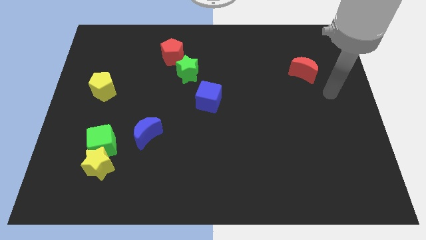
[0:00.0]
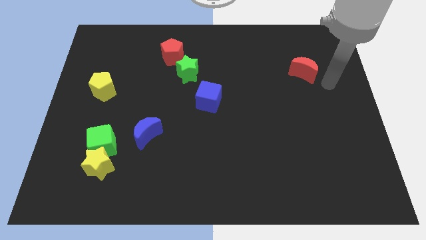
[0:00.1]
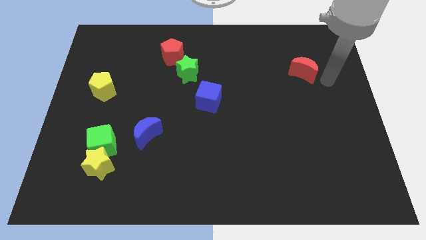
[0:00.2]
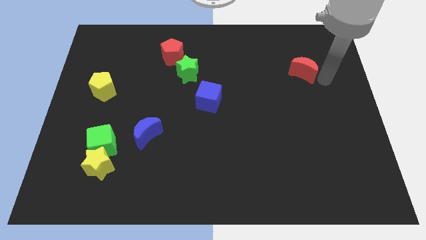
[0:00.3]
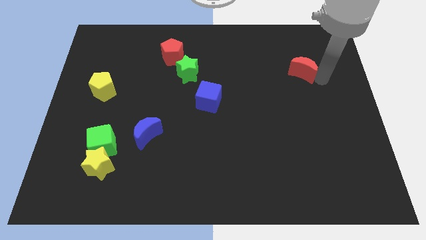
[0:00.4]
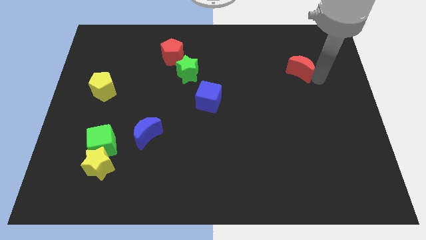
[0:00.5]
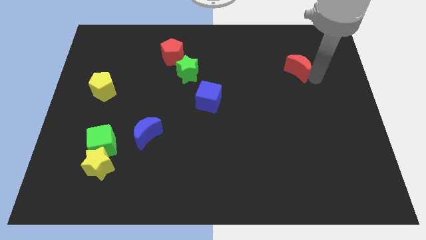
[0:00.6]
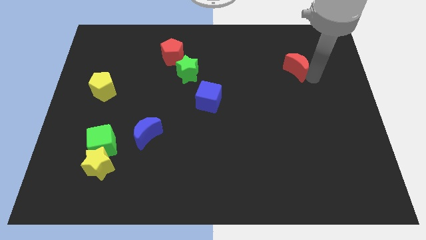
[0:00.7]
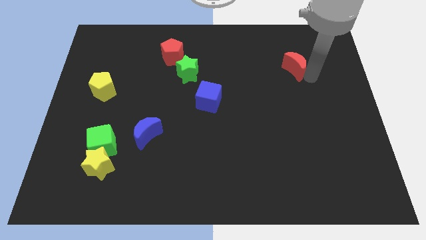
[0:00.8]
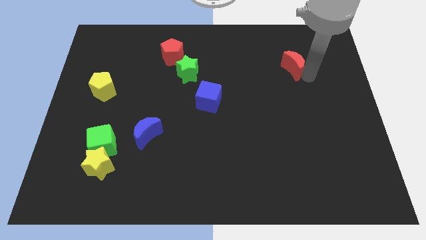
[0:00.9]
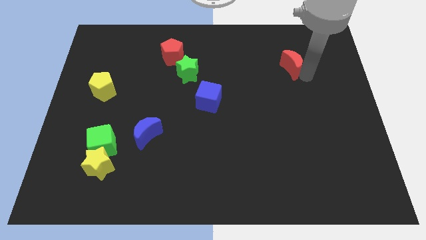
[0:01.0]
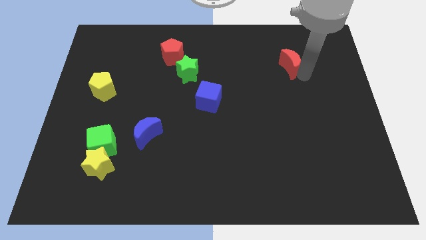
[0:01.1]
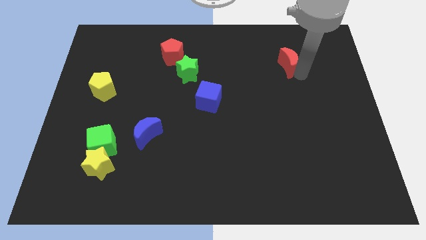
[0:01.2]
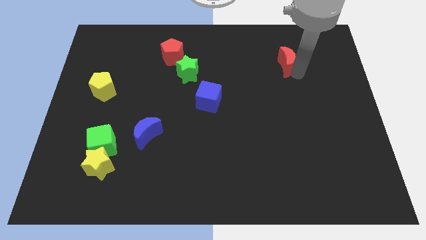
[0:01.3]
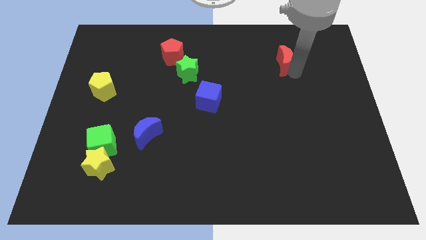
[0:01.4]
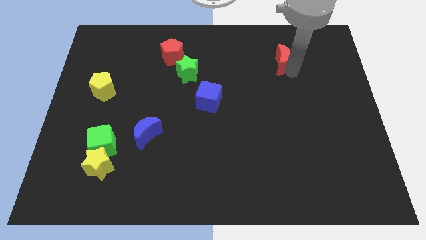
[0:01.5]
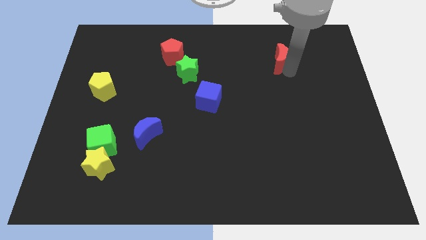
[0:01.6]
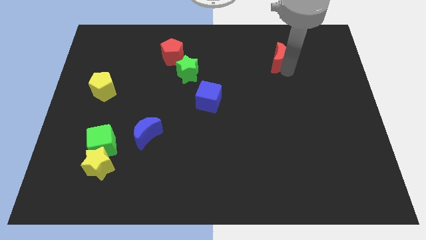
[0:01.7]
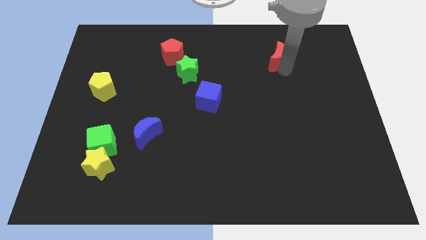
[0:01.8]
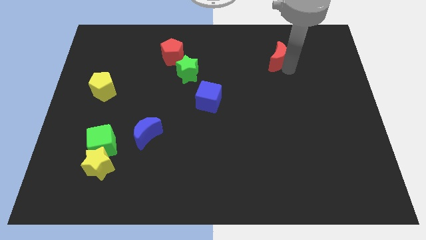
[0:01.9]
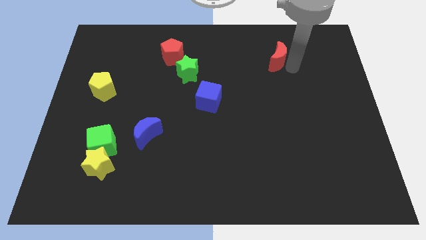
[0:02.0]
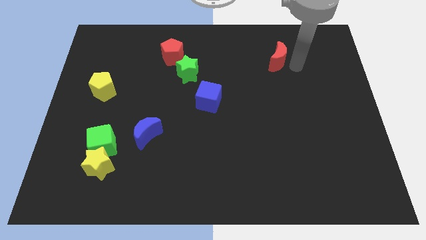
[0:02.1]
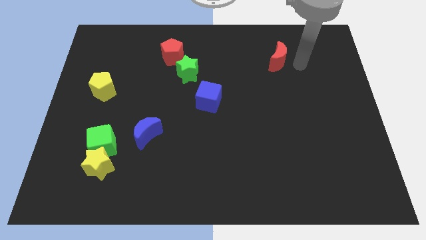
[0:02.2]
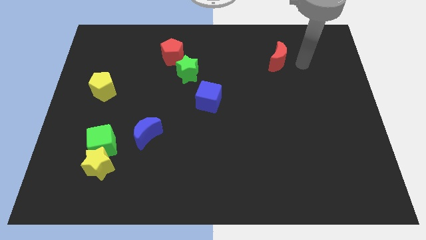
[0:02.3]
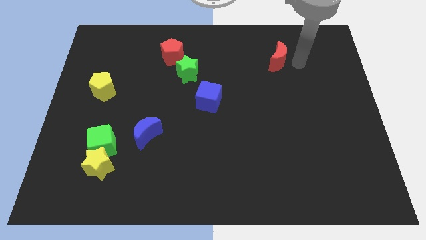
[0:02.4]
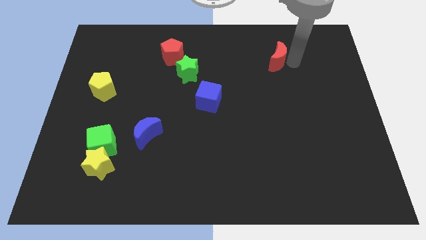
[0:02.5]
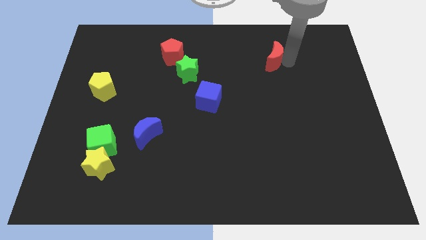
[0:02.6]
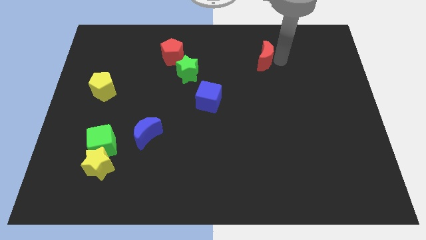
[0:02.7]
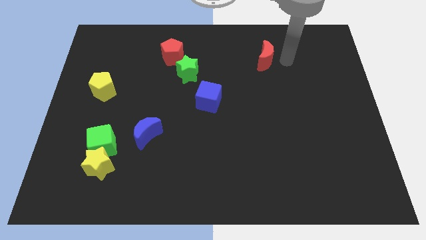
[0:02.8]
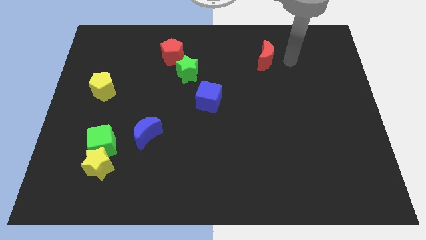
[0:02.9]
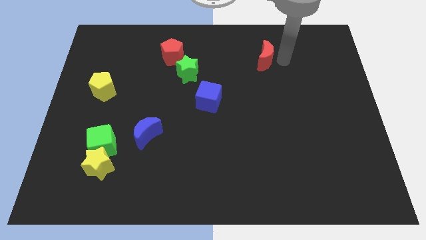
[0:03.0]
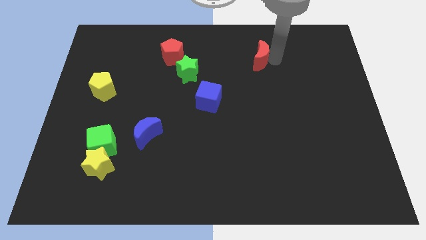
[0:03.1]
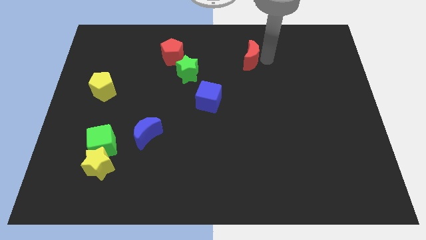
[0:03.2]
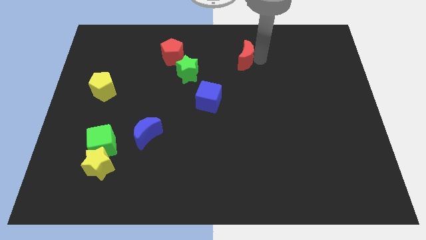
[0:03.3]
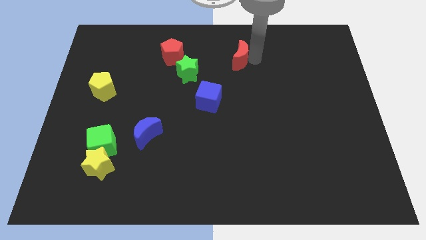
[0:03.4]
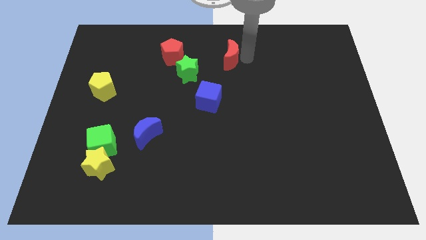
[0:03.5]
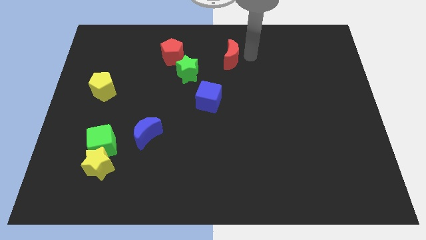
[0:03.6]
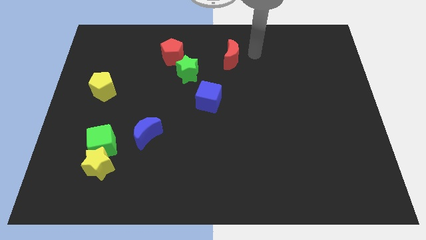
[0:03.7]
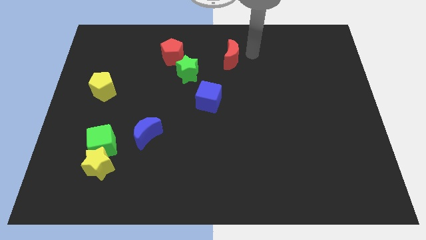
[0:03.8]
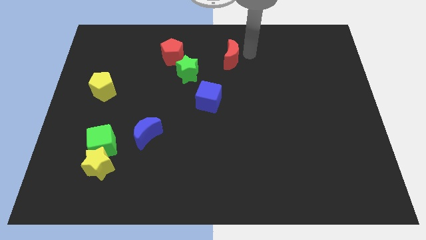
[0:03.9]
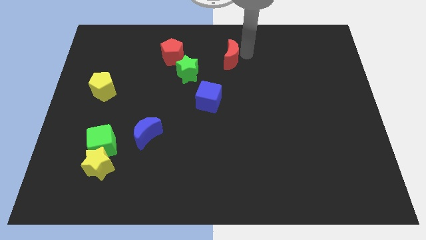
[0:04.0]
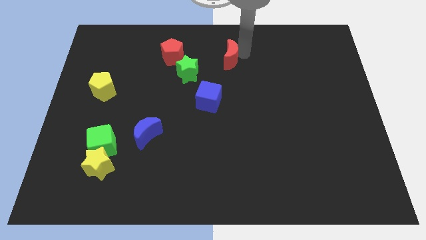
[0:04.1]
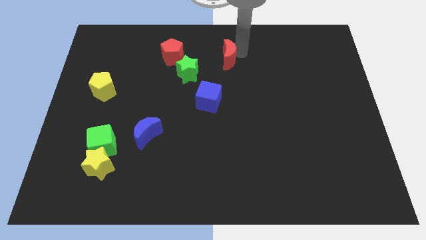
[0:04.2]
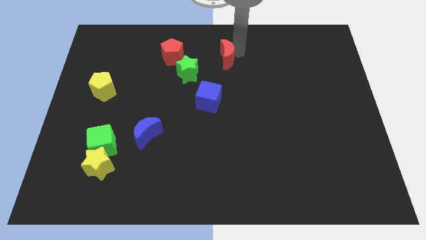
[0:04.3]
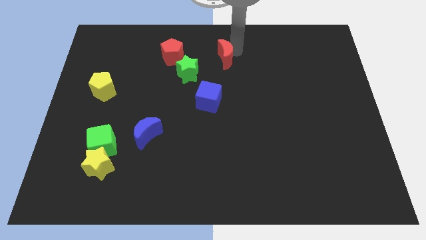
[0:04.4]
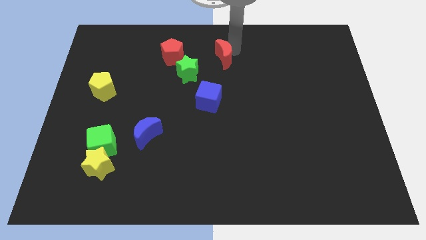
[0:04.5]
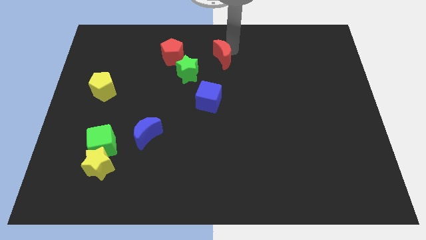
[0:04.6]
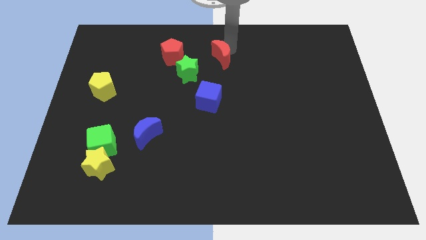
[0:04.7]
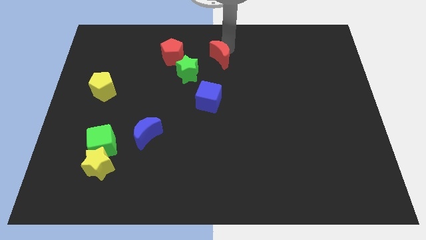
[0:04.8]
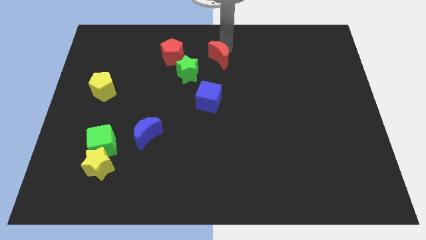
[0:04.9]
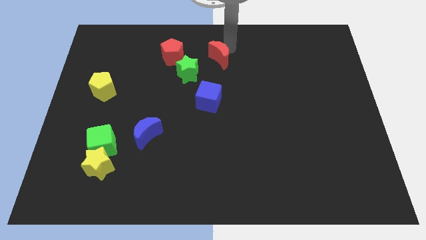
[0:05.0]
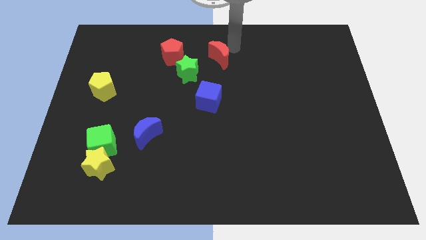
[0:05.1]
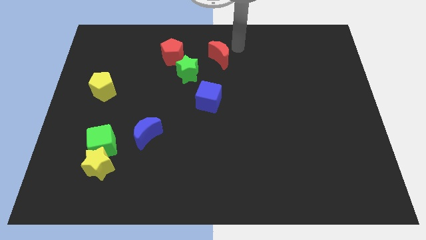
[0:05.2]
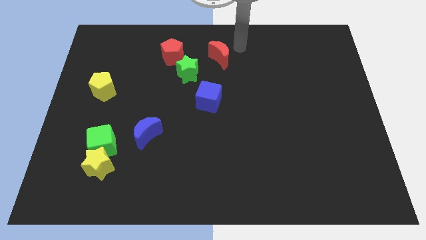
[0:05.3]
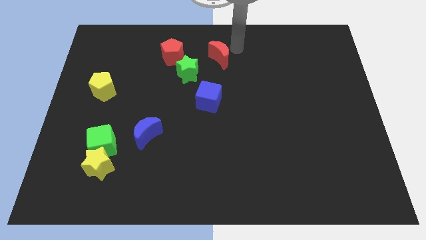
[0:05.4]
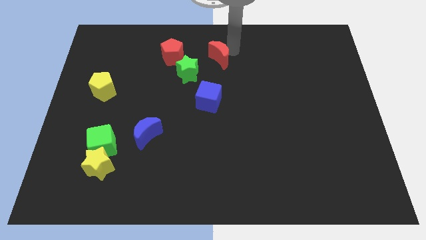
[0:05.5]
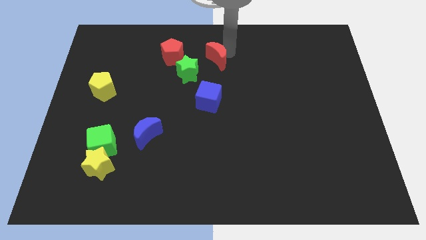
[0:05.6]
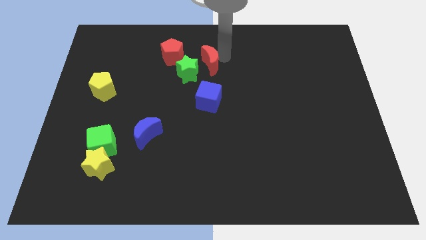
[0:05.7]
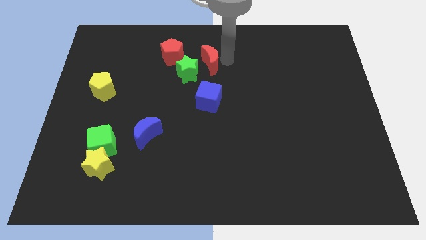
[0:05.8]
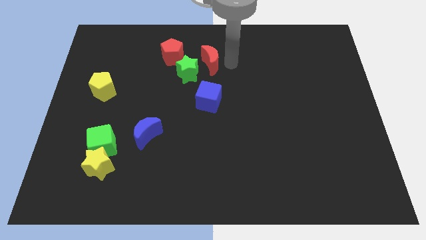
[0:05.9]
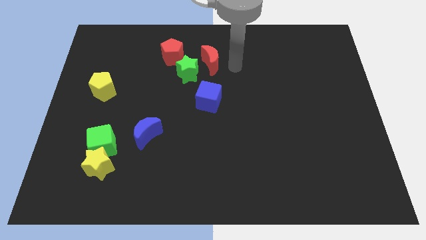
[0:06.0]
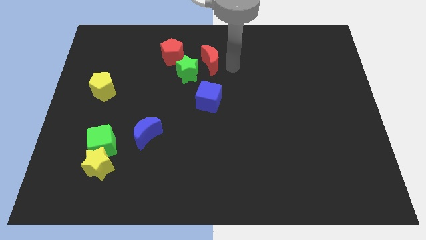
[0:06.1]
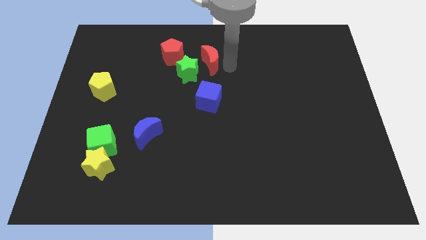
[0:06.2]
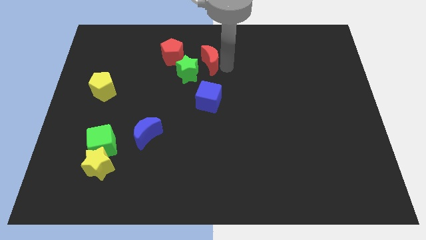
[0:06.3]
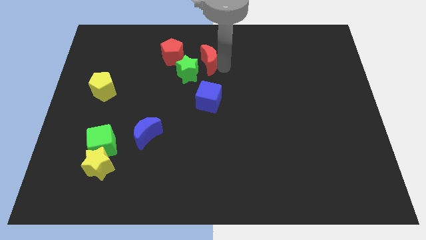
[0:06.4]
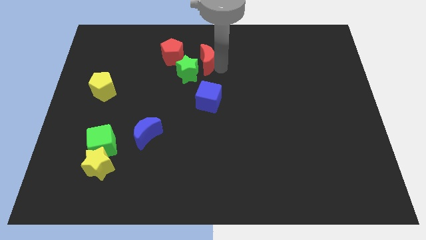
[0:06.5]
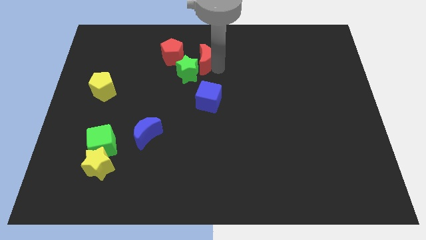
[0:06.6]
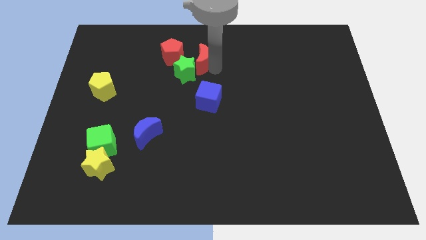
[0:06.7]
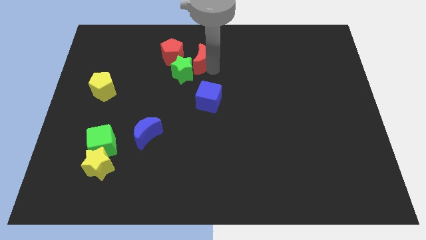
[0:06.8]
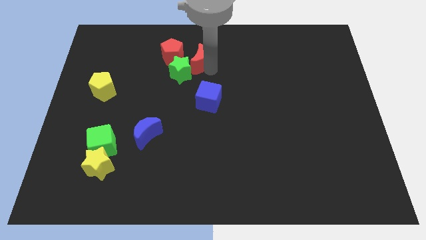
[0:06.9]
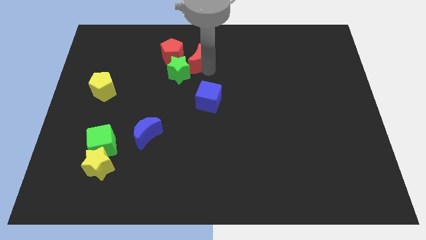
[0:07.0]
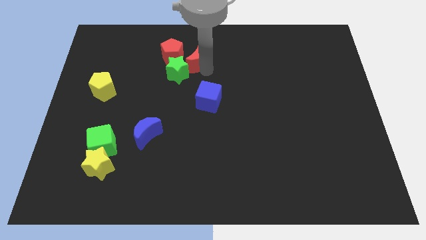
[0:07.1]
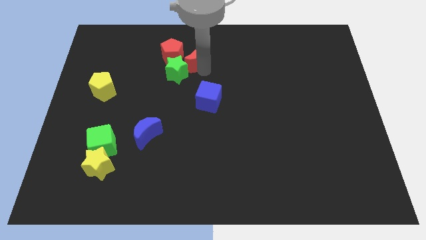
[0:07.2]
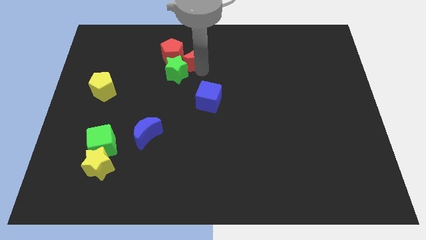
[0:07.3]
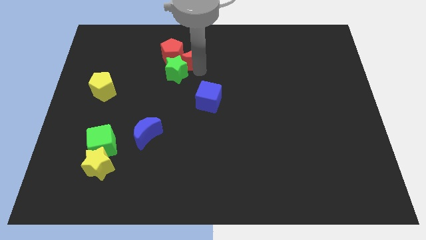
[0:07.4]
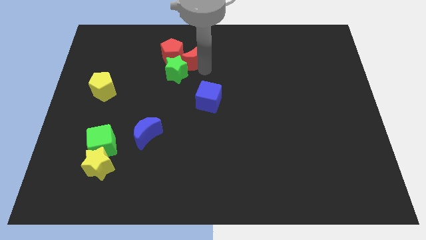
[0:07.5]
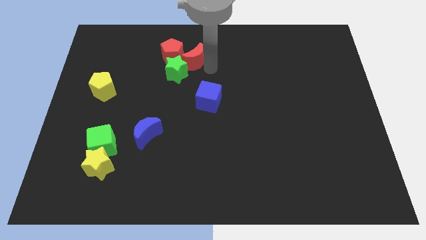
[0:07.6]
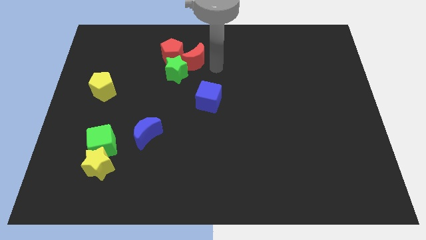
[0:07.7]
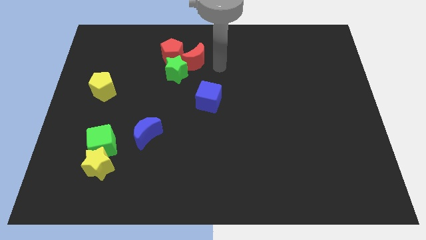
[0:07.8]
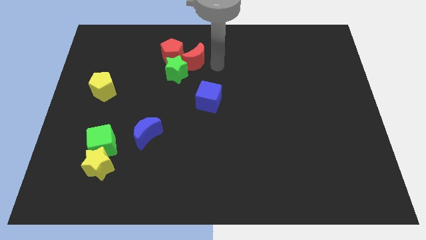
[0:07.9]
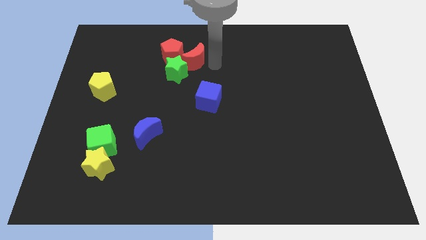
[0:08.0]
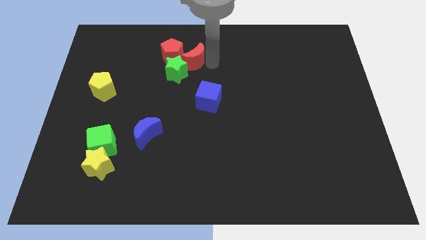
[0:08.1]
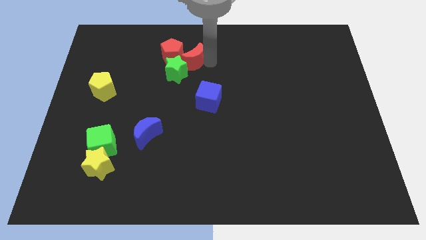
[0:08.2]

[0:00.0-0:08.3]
push the red moon to the red pentagon
